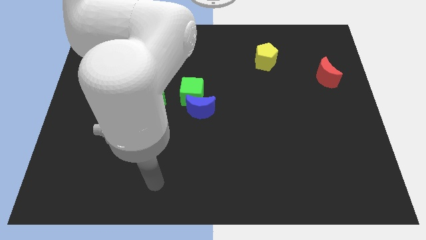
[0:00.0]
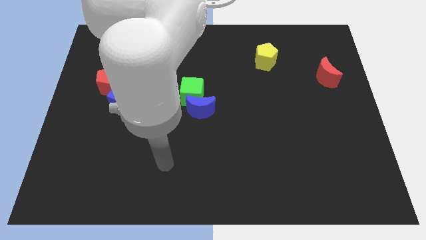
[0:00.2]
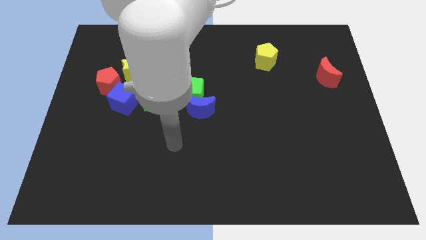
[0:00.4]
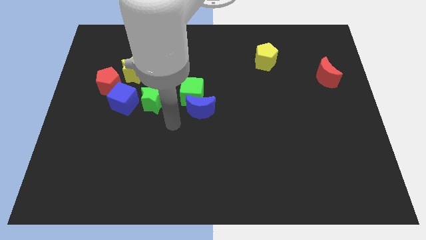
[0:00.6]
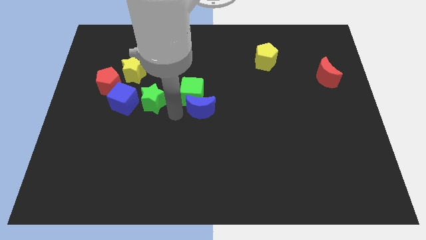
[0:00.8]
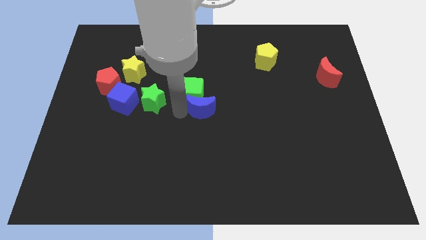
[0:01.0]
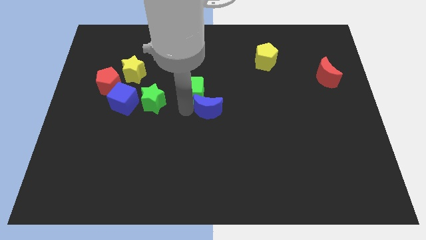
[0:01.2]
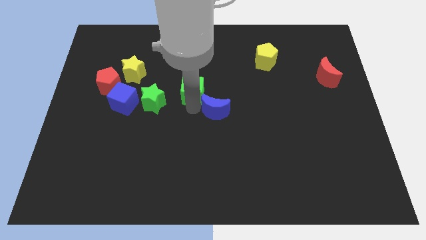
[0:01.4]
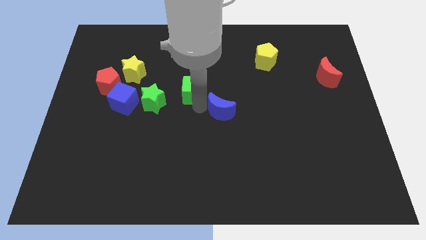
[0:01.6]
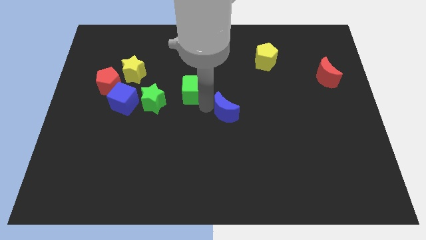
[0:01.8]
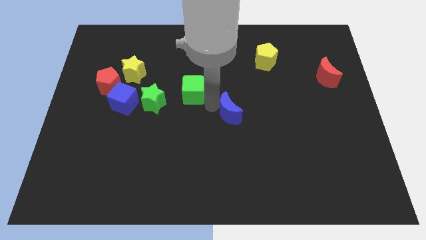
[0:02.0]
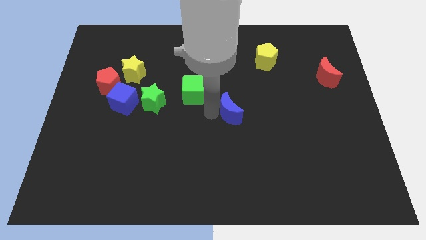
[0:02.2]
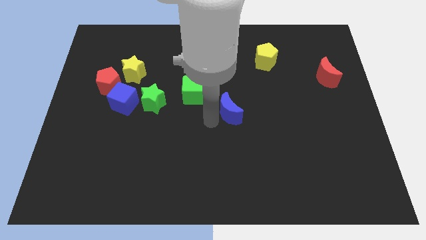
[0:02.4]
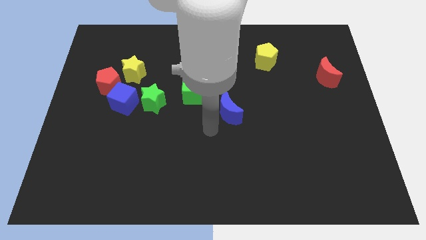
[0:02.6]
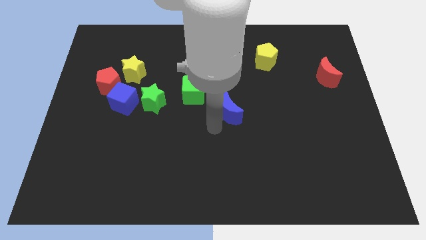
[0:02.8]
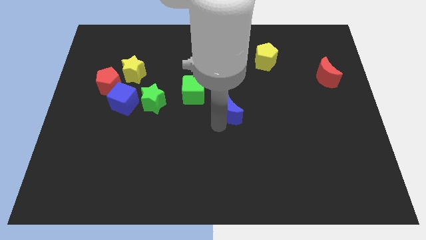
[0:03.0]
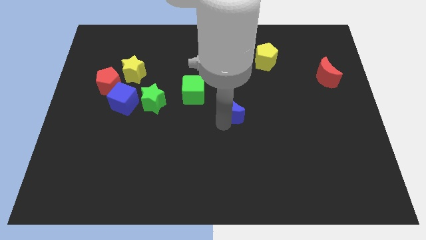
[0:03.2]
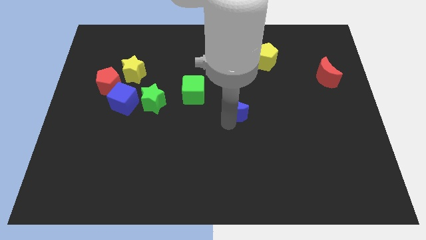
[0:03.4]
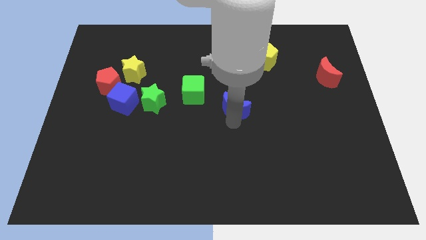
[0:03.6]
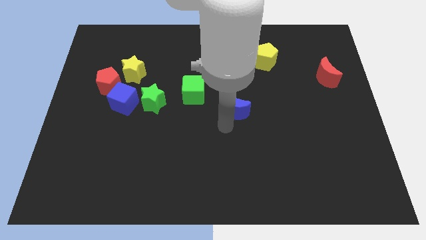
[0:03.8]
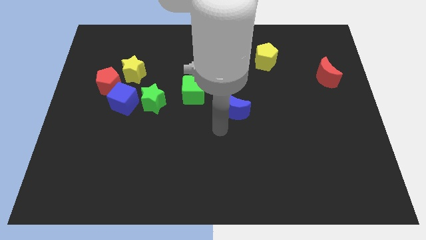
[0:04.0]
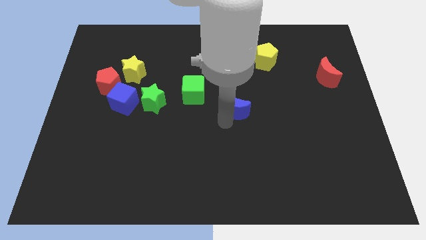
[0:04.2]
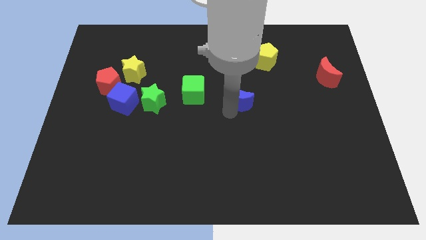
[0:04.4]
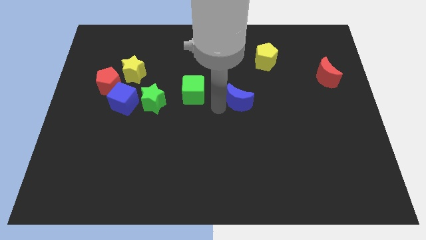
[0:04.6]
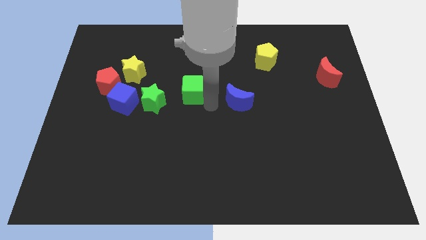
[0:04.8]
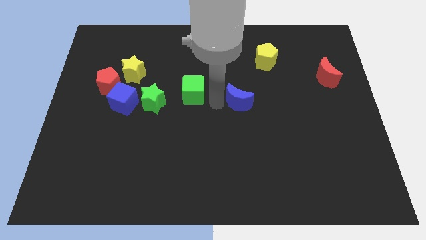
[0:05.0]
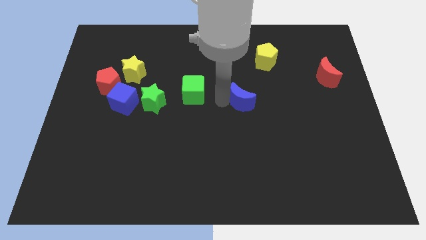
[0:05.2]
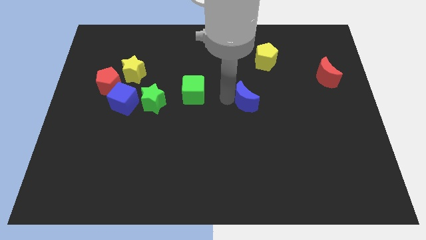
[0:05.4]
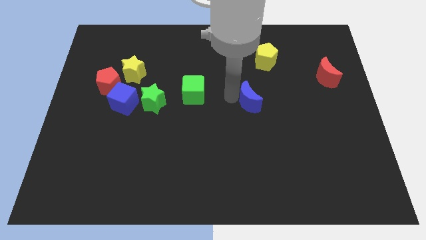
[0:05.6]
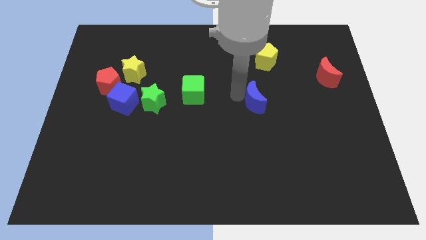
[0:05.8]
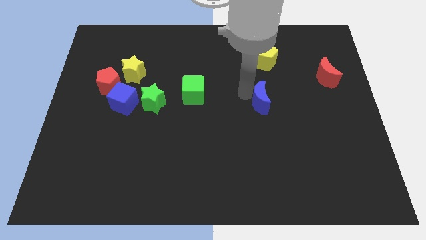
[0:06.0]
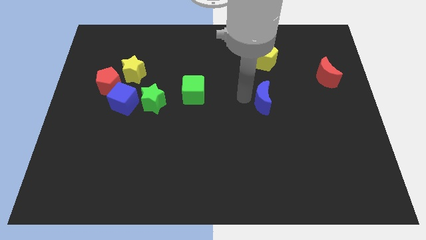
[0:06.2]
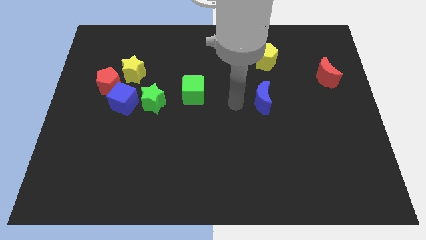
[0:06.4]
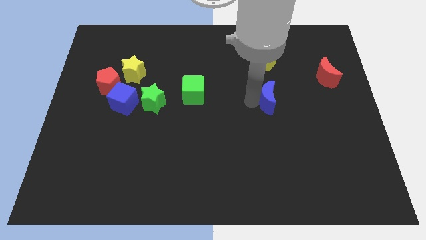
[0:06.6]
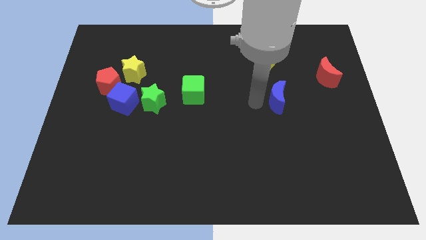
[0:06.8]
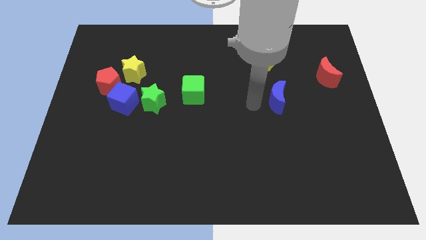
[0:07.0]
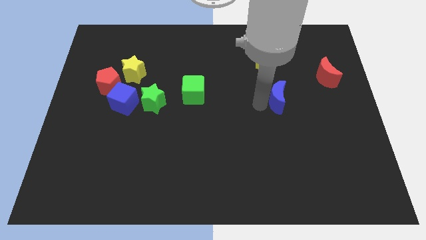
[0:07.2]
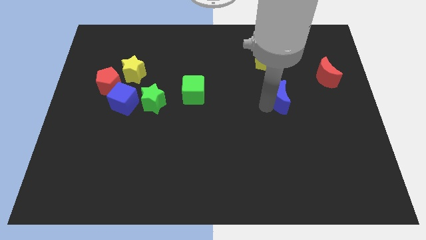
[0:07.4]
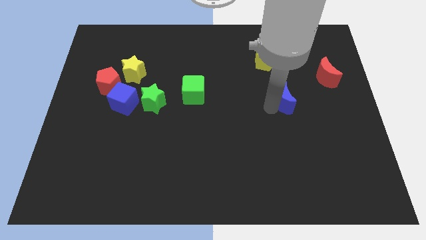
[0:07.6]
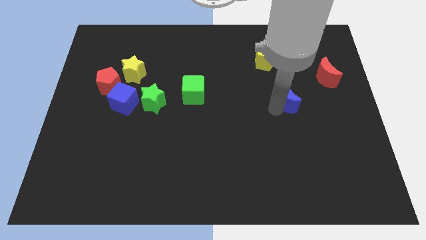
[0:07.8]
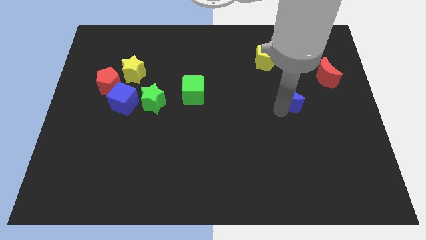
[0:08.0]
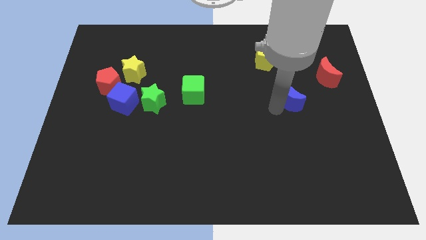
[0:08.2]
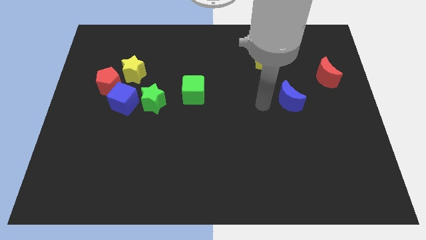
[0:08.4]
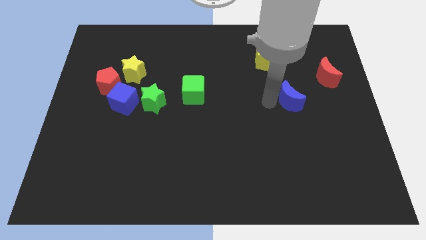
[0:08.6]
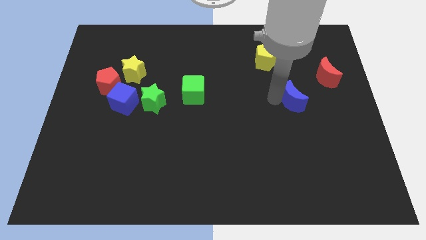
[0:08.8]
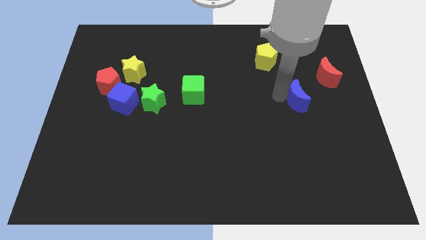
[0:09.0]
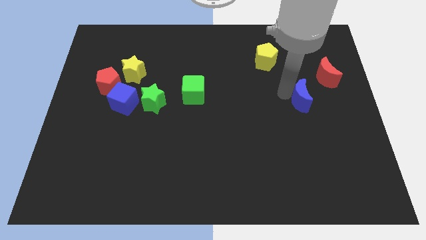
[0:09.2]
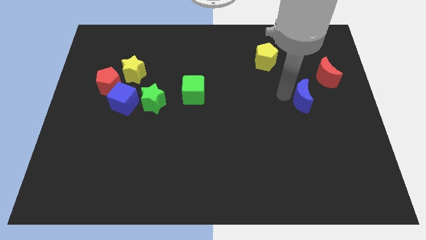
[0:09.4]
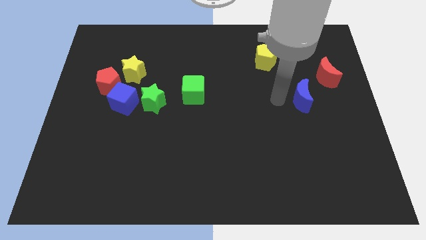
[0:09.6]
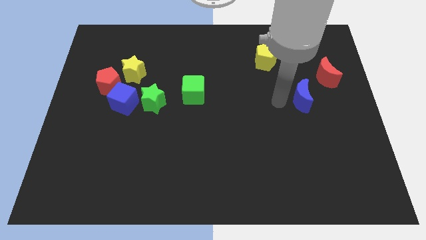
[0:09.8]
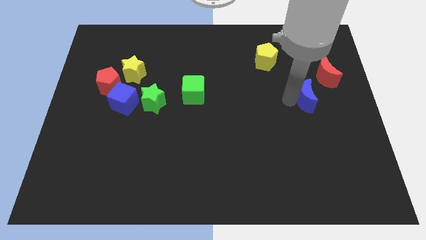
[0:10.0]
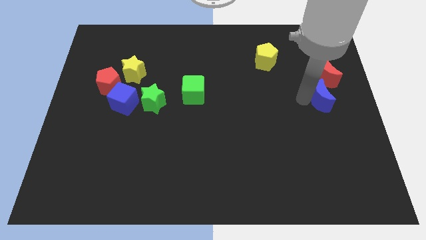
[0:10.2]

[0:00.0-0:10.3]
put the blue moon to the right side

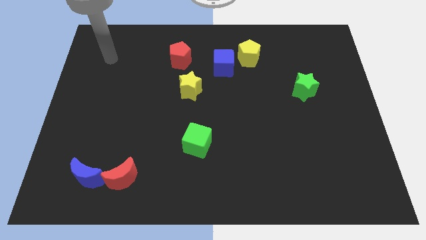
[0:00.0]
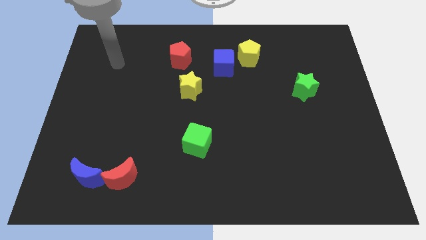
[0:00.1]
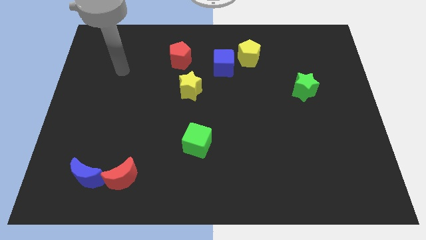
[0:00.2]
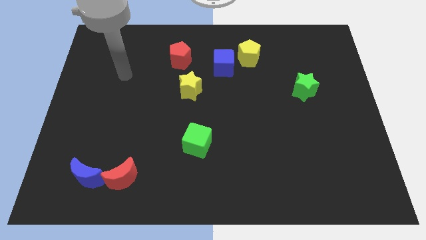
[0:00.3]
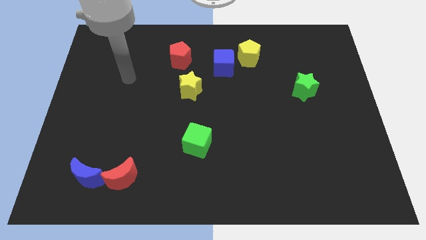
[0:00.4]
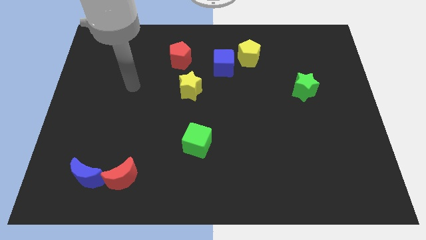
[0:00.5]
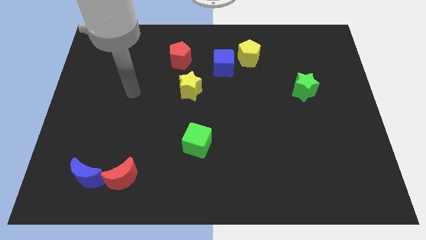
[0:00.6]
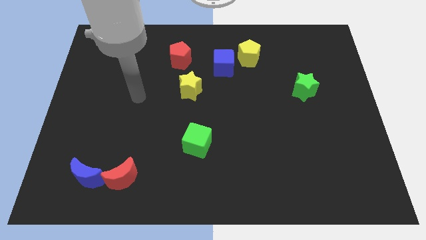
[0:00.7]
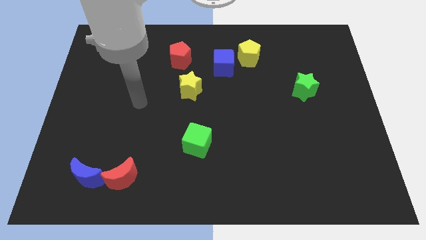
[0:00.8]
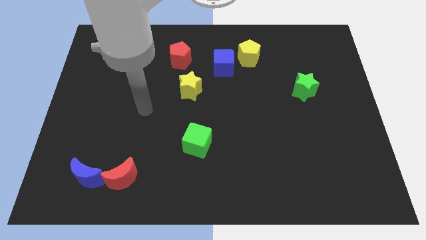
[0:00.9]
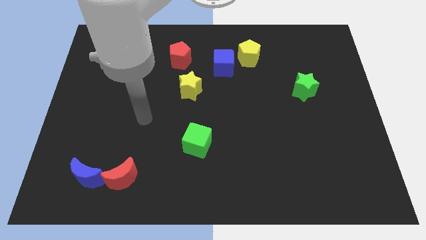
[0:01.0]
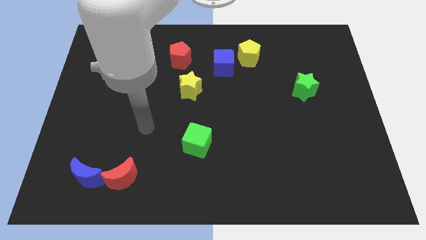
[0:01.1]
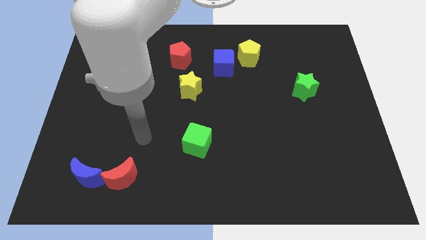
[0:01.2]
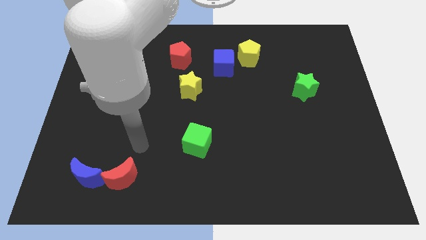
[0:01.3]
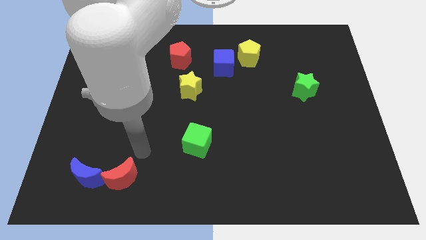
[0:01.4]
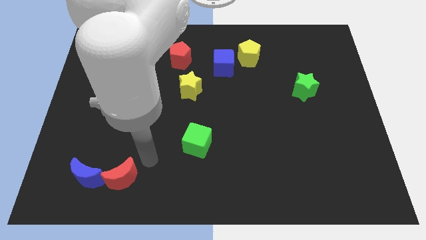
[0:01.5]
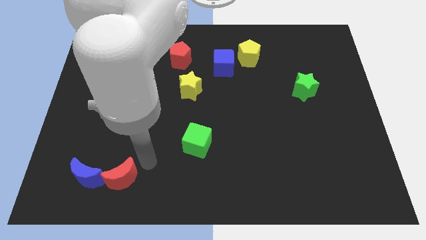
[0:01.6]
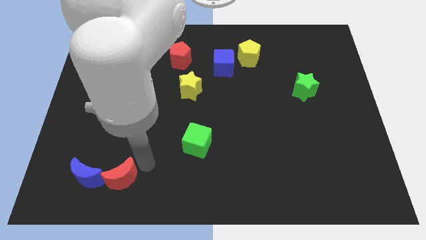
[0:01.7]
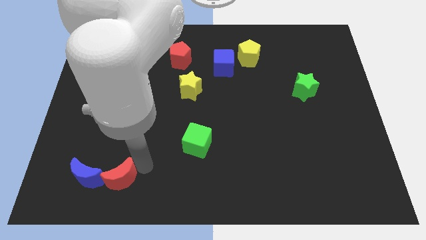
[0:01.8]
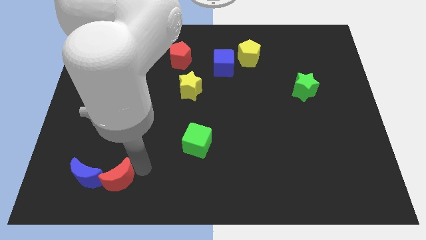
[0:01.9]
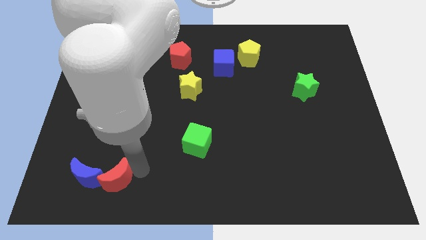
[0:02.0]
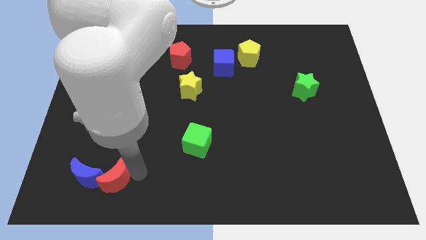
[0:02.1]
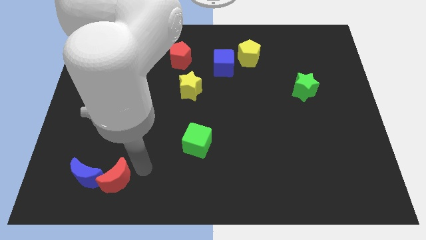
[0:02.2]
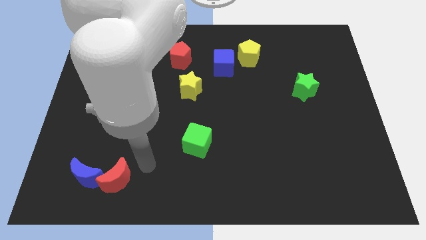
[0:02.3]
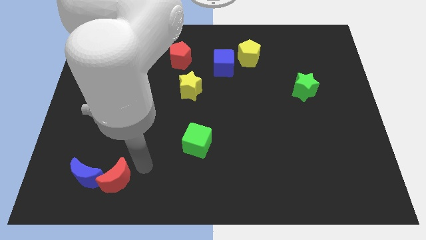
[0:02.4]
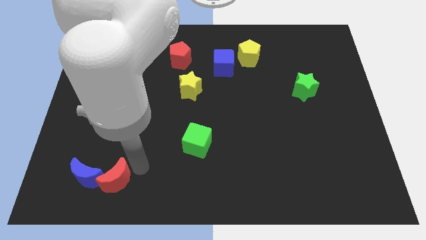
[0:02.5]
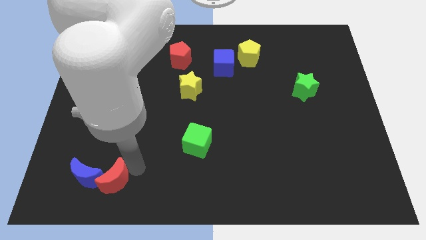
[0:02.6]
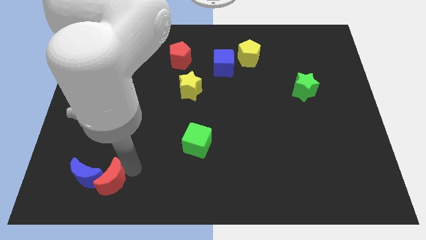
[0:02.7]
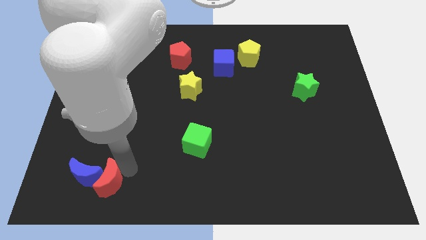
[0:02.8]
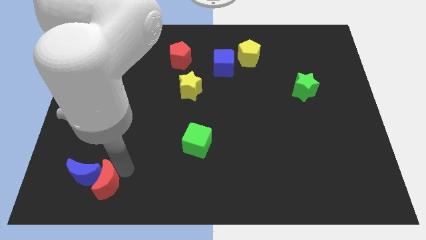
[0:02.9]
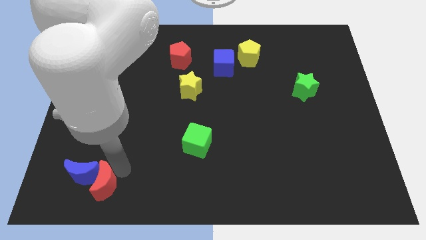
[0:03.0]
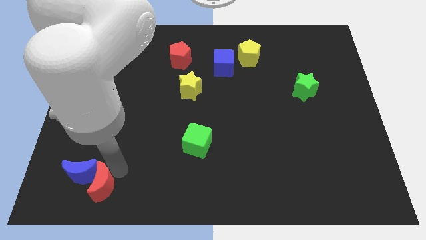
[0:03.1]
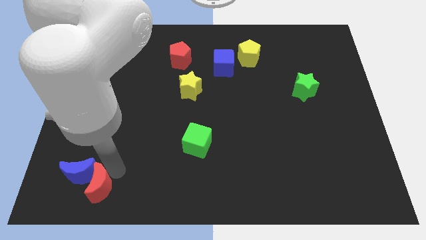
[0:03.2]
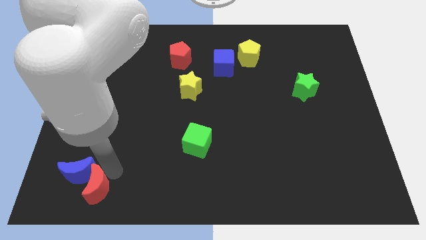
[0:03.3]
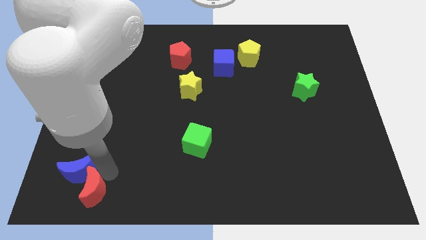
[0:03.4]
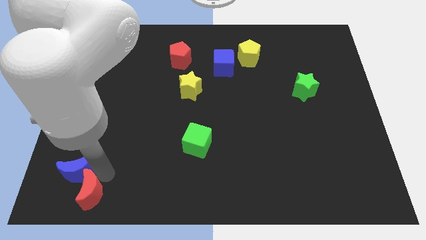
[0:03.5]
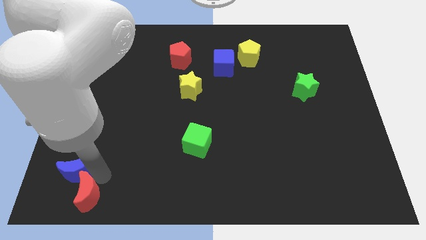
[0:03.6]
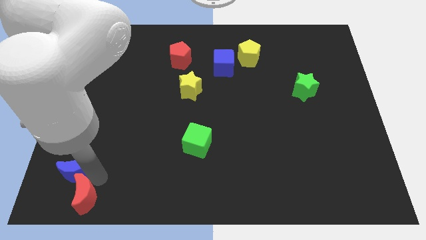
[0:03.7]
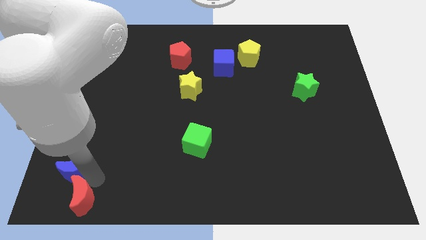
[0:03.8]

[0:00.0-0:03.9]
slide the red moon to the bottom left
